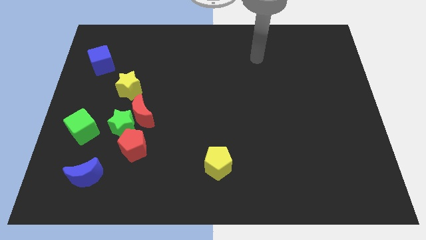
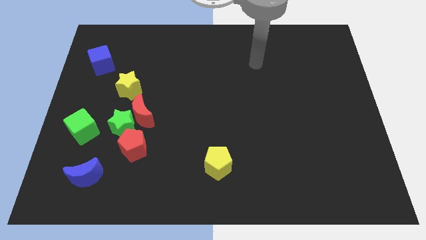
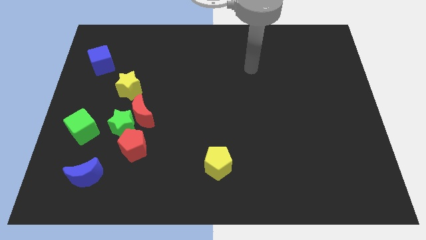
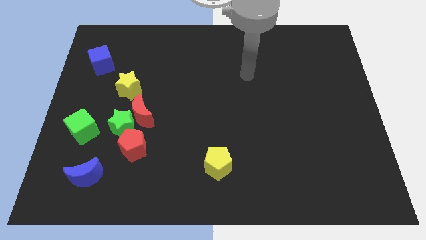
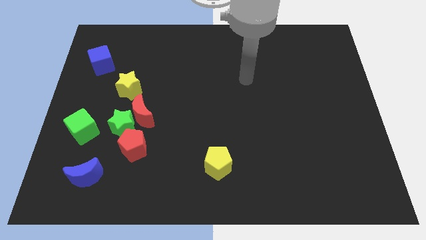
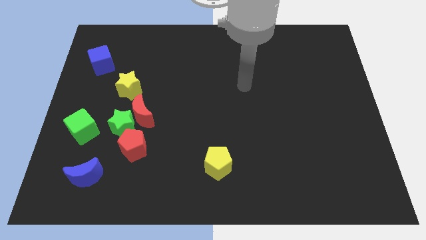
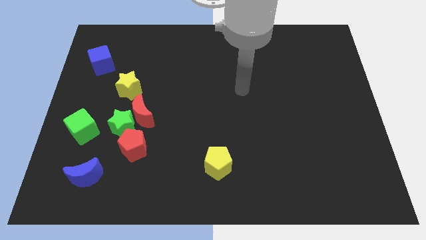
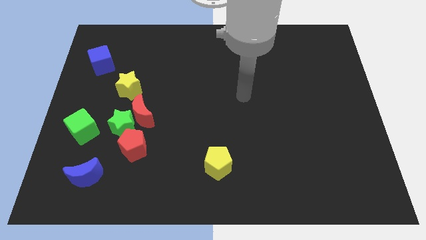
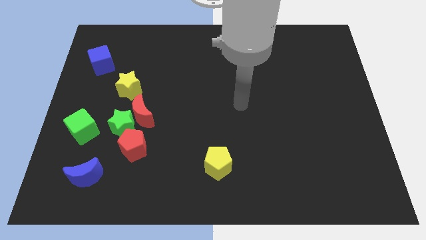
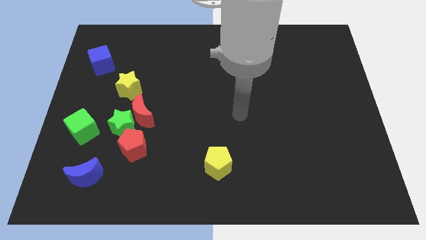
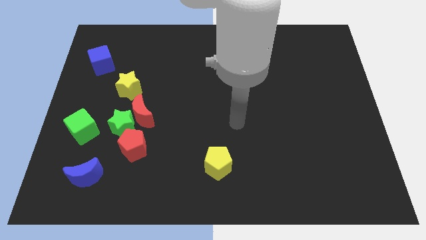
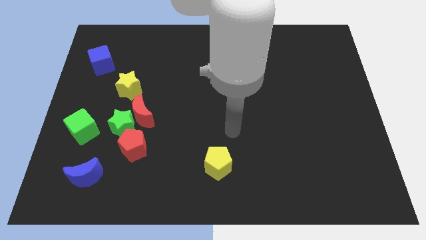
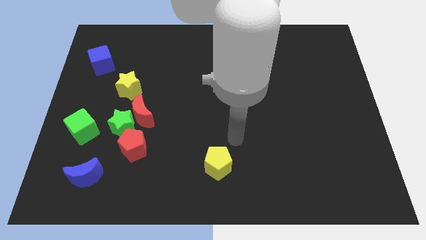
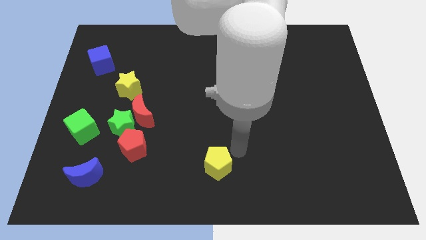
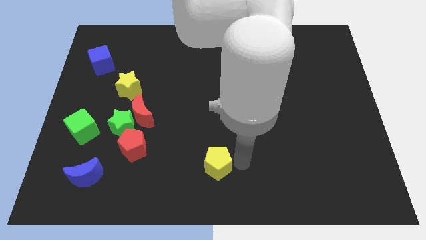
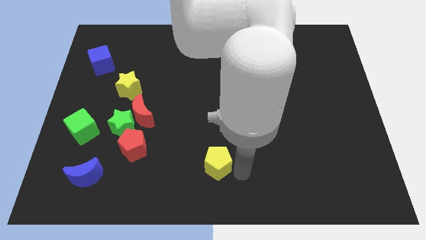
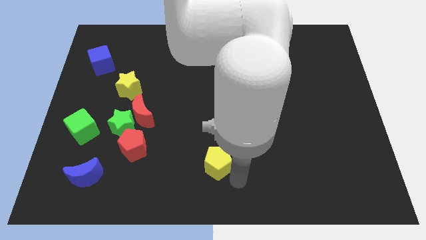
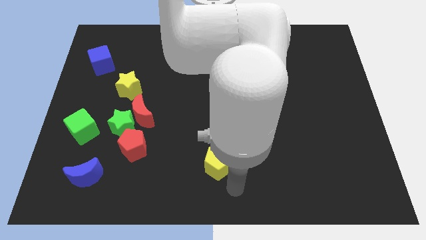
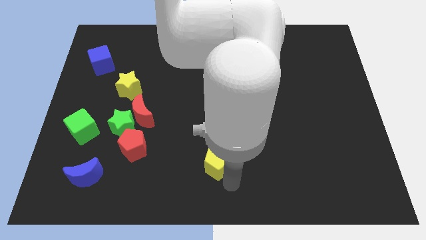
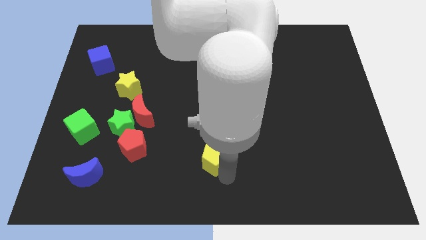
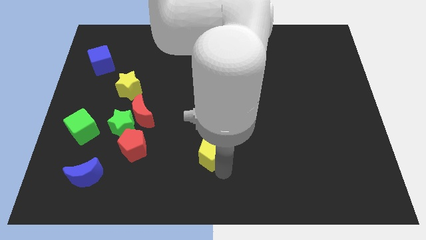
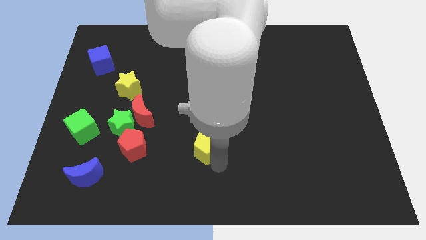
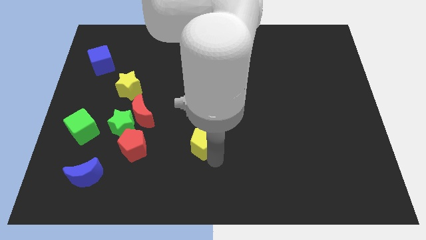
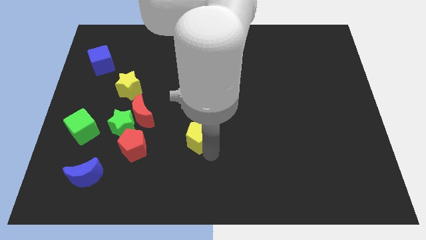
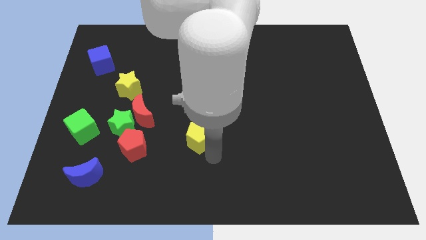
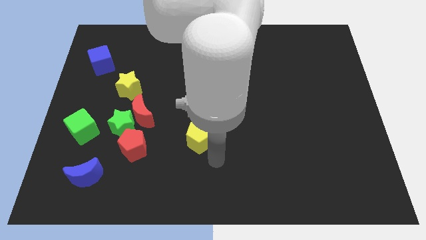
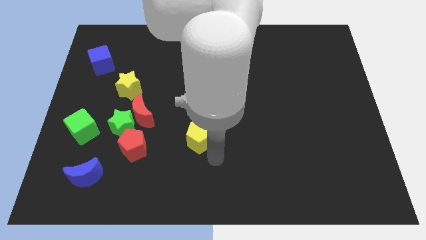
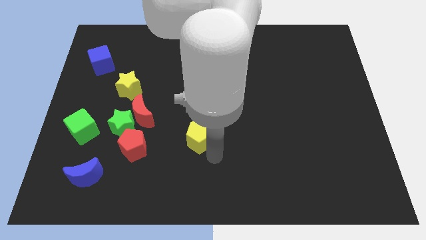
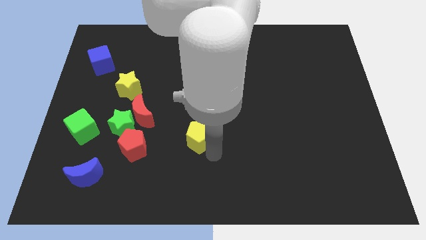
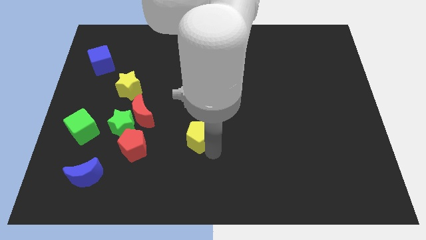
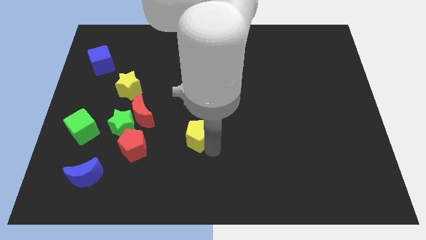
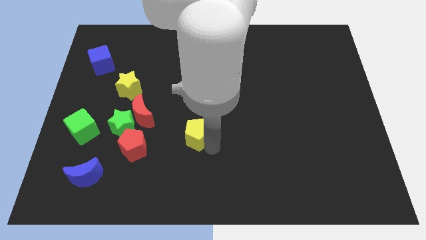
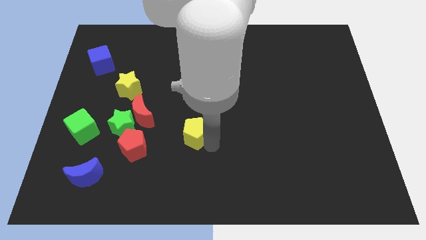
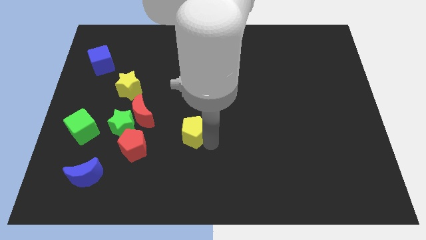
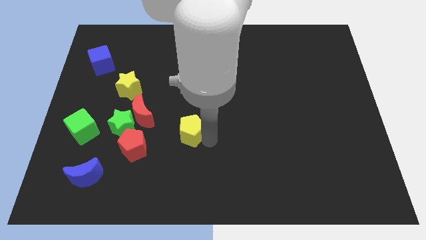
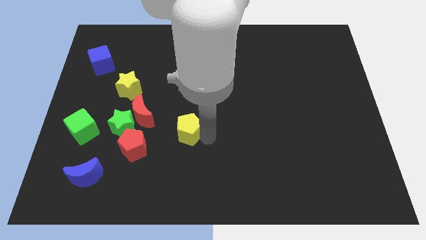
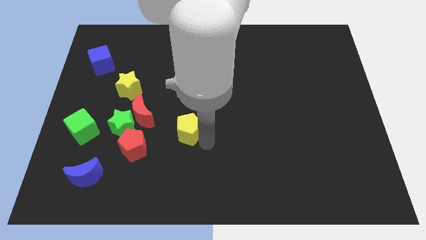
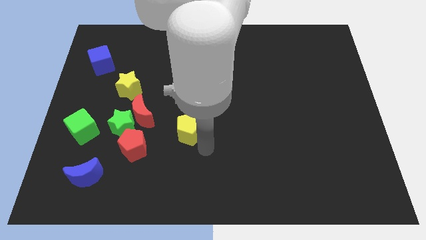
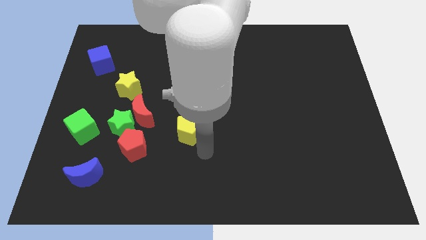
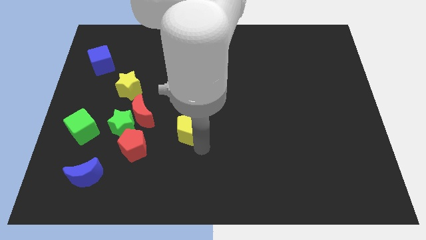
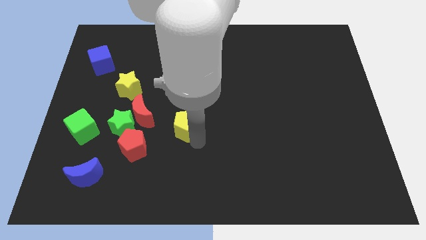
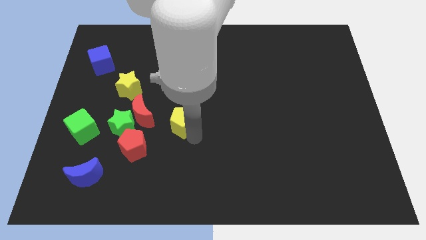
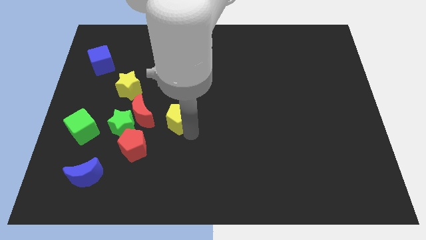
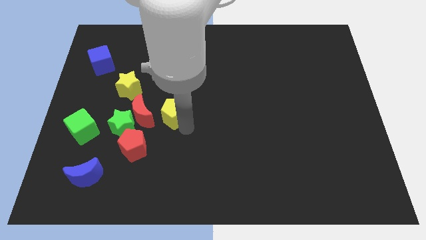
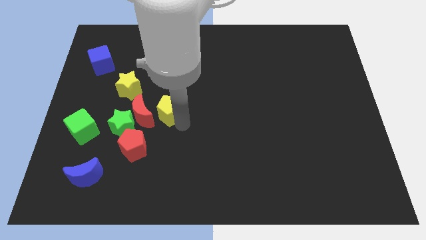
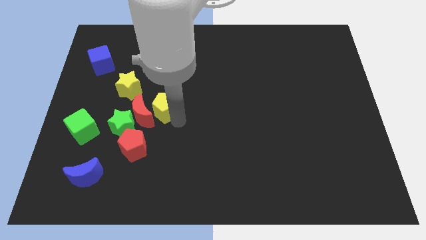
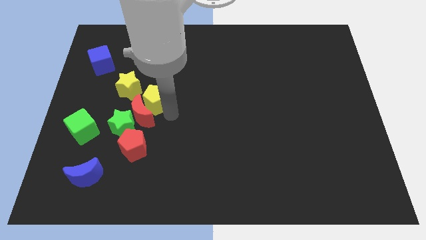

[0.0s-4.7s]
slide the yellow pentagon to the top side of the red moon

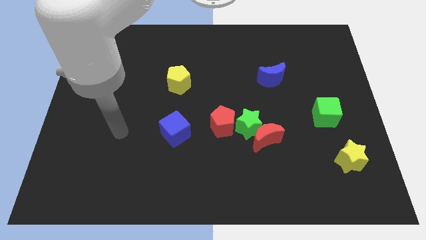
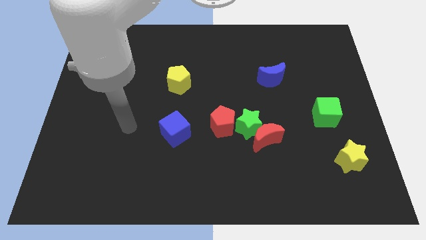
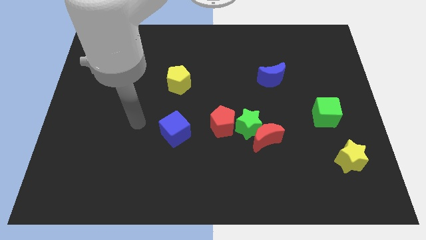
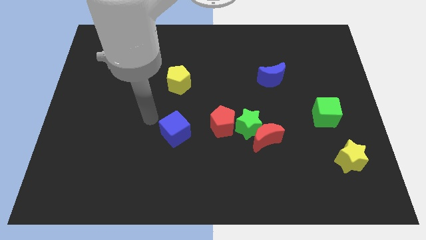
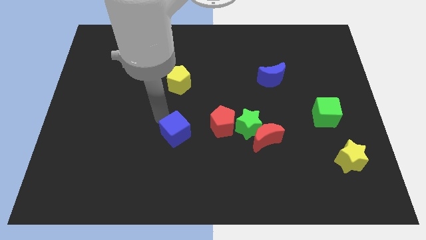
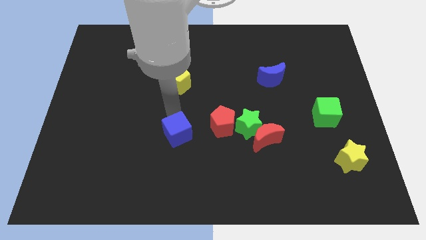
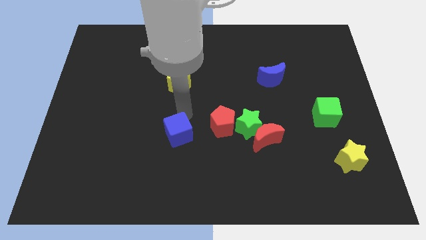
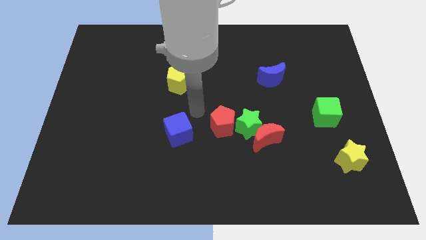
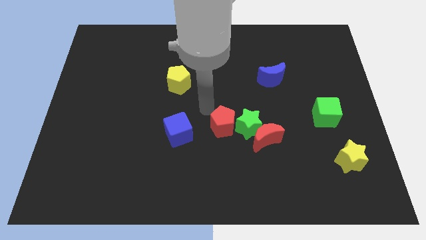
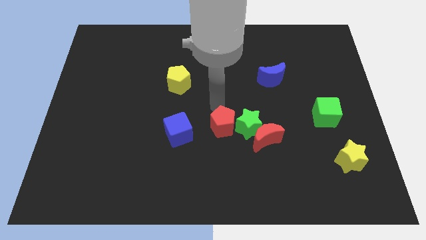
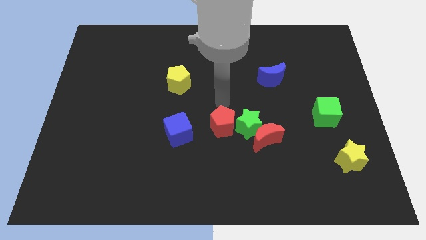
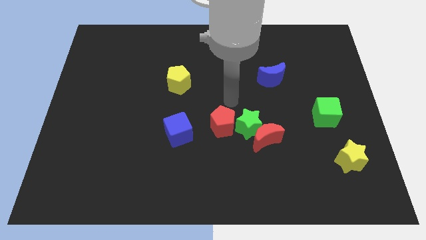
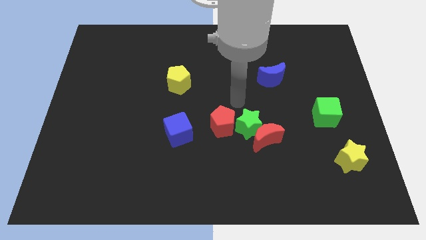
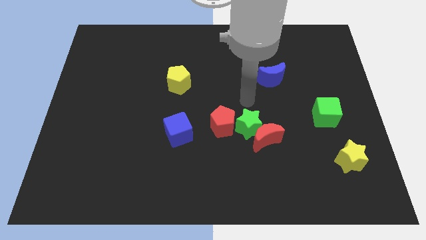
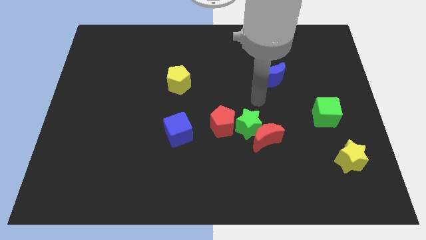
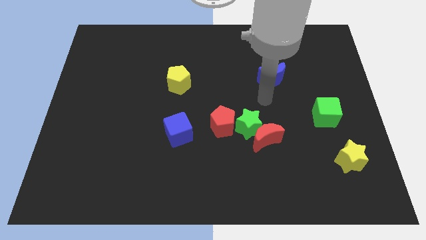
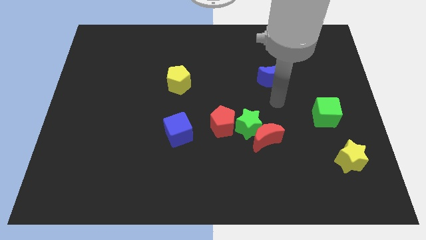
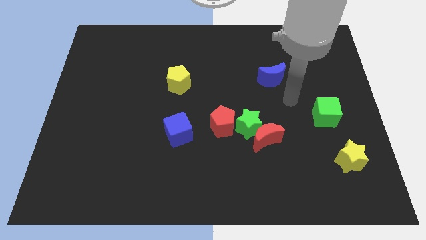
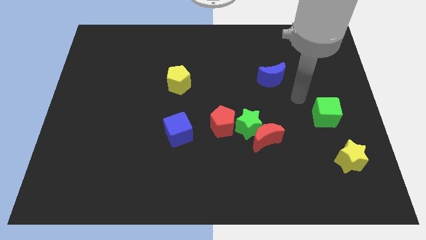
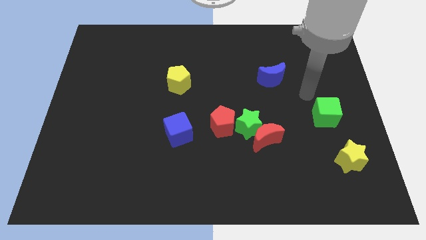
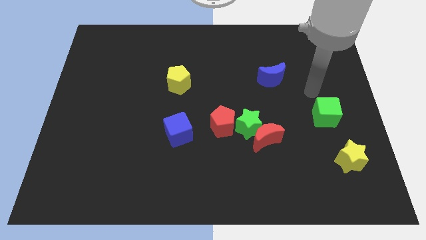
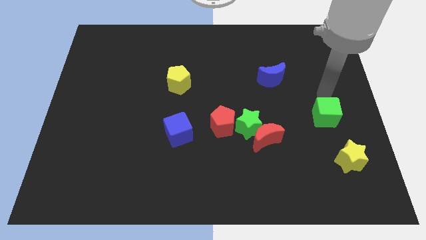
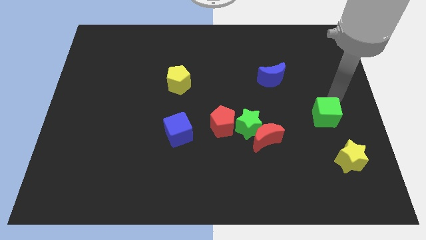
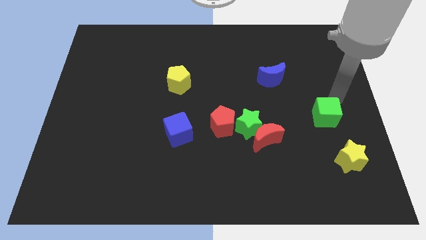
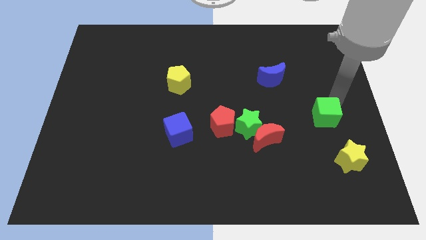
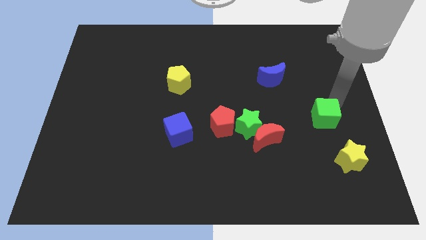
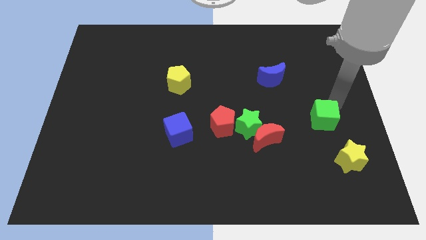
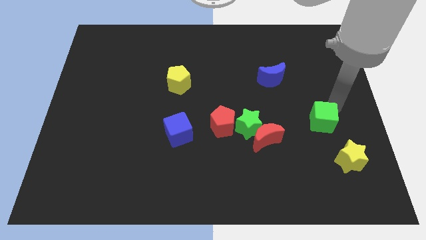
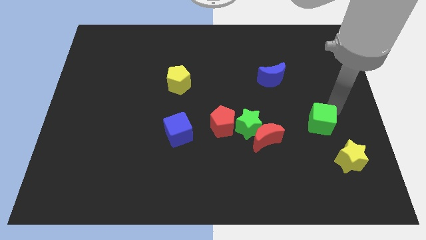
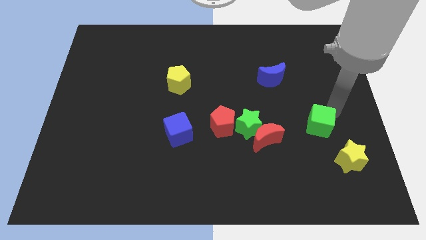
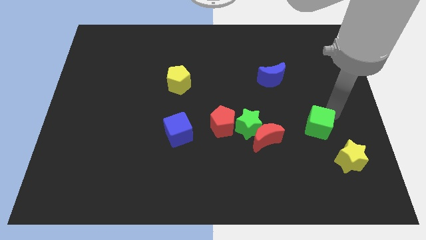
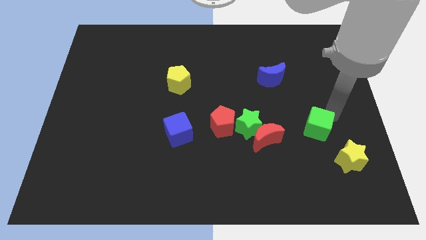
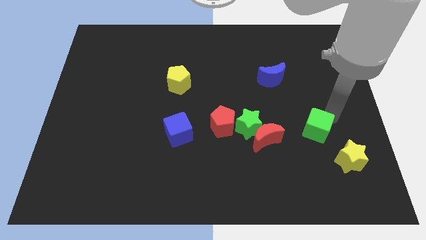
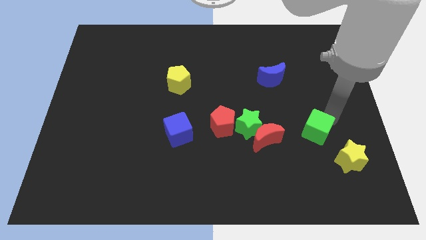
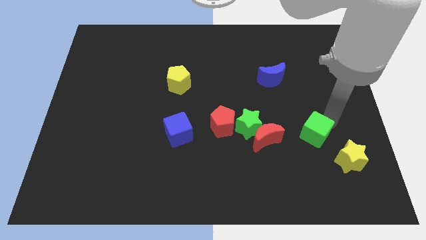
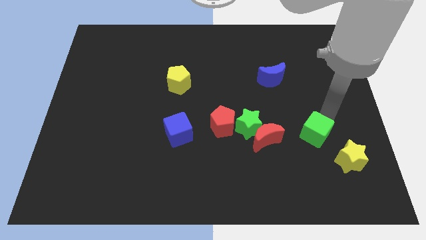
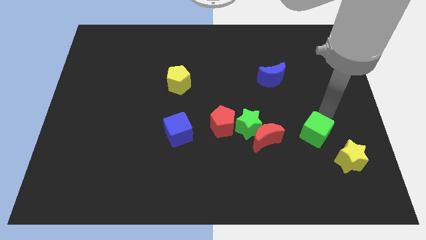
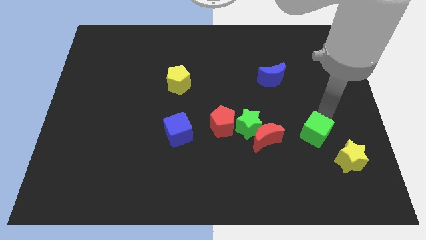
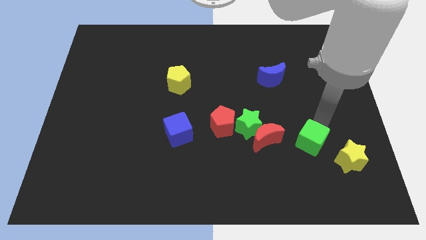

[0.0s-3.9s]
slide the green cube just left of the yellow star
